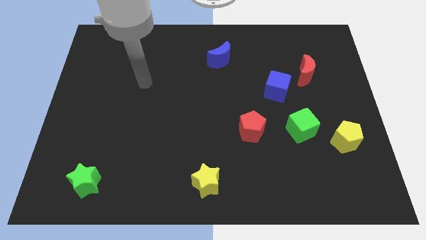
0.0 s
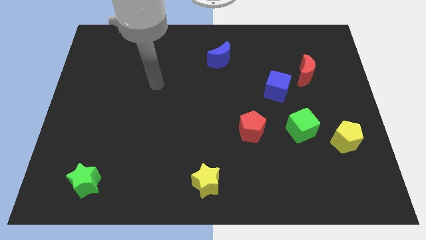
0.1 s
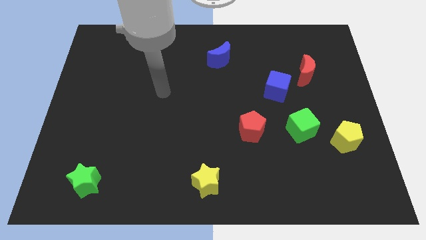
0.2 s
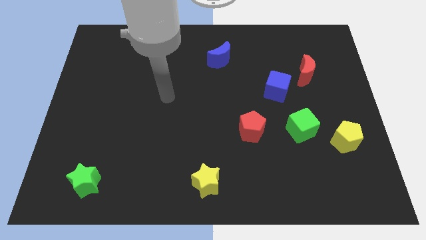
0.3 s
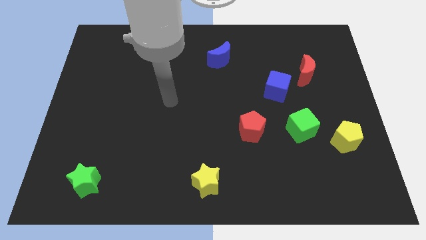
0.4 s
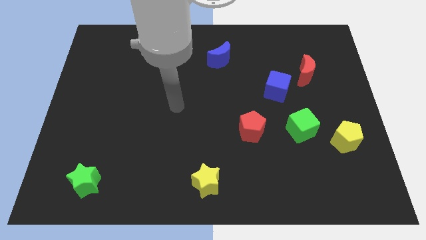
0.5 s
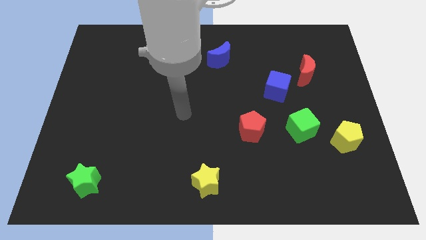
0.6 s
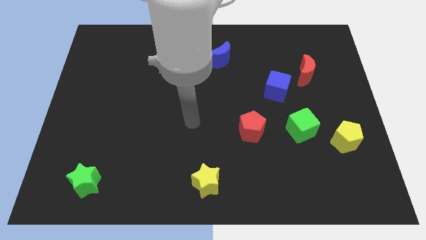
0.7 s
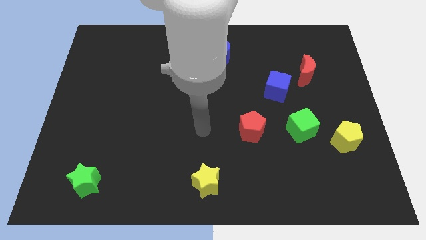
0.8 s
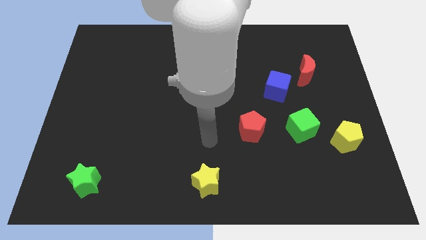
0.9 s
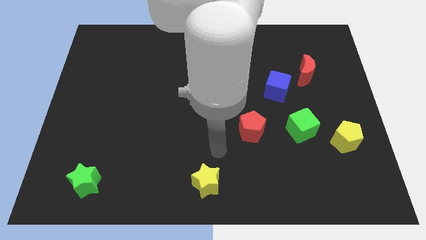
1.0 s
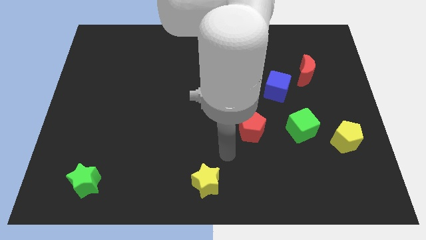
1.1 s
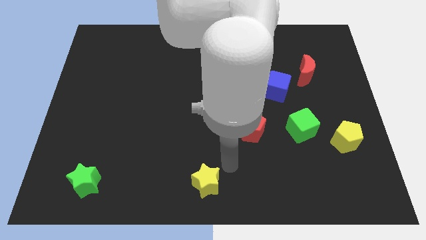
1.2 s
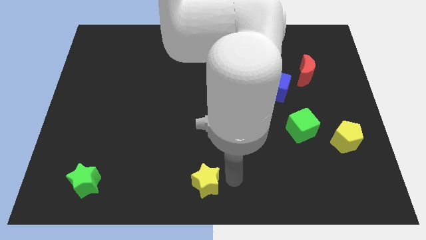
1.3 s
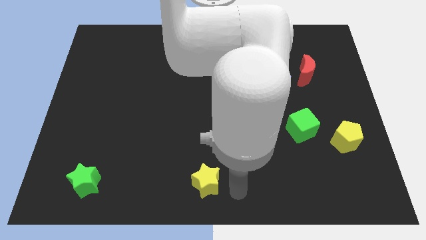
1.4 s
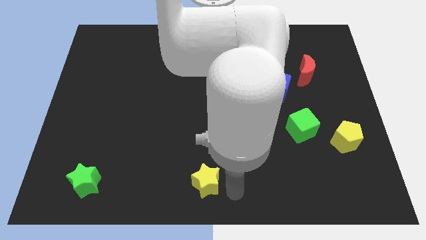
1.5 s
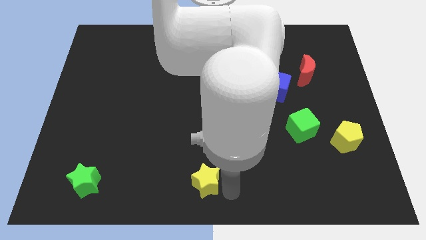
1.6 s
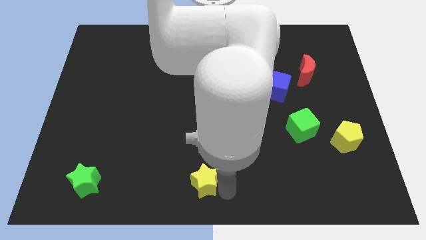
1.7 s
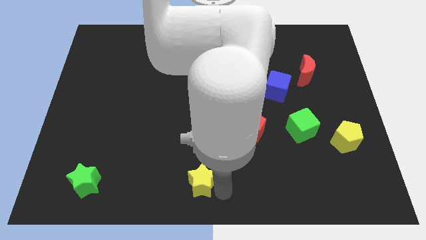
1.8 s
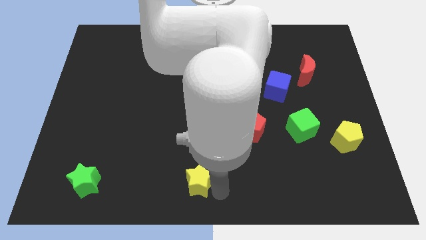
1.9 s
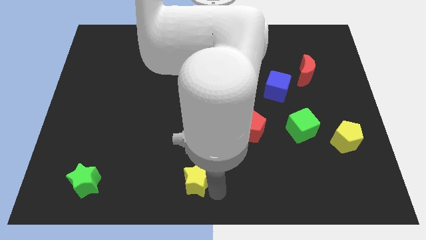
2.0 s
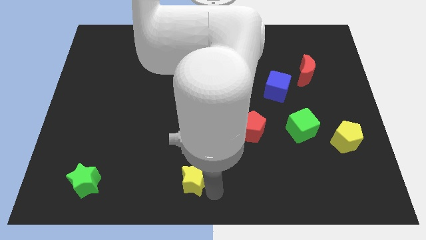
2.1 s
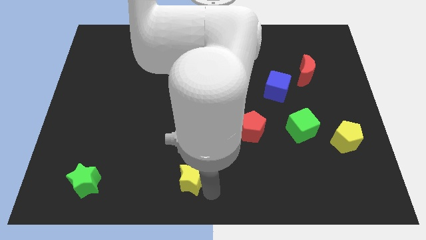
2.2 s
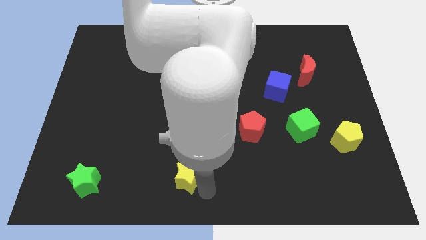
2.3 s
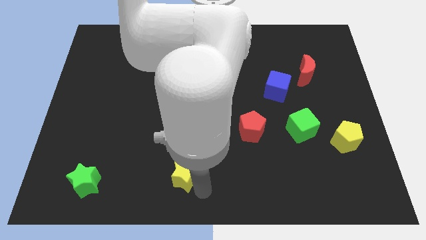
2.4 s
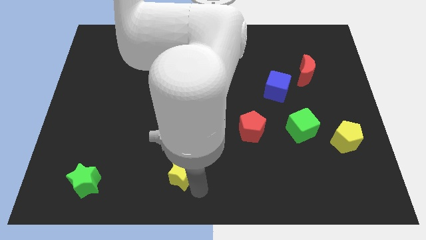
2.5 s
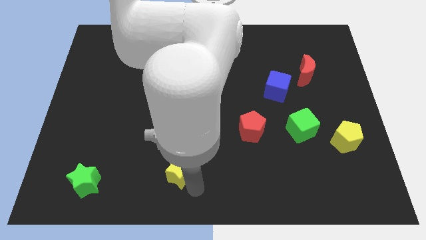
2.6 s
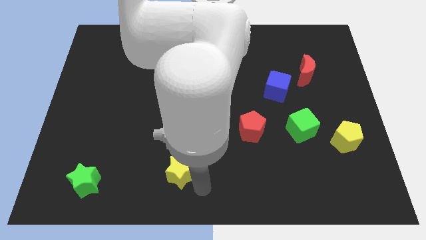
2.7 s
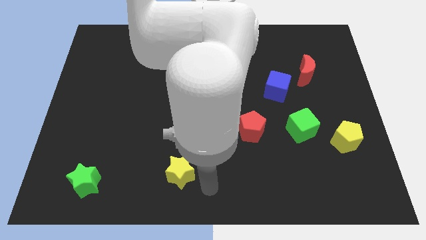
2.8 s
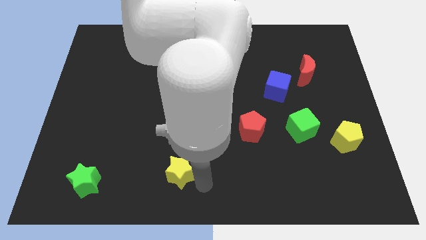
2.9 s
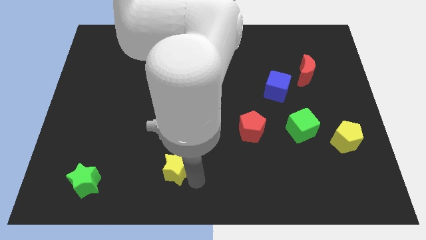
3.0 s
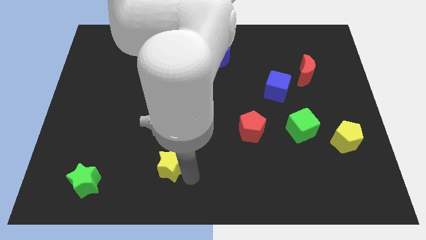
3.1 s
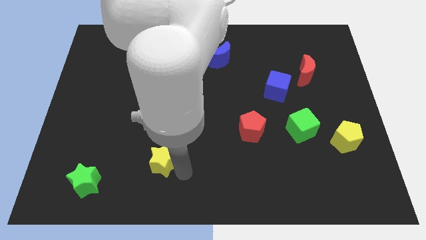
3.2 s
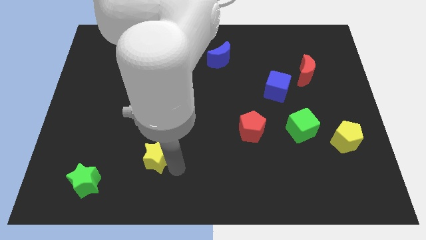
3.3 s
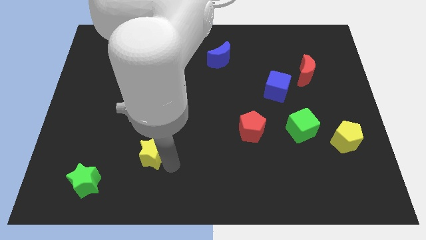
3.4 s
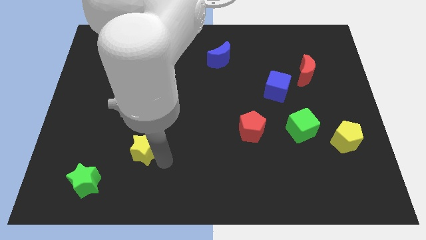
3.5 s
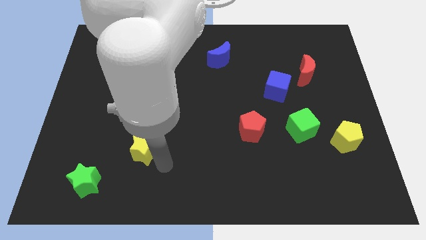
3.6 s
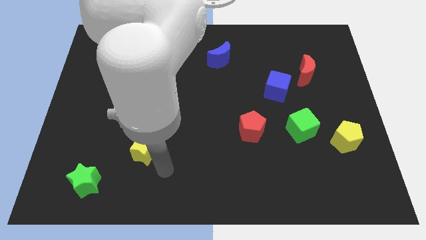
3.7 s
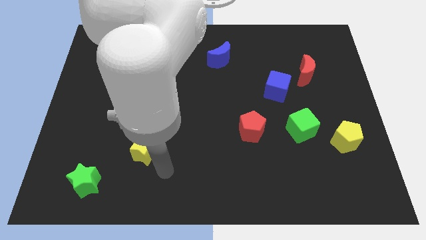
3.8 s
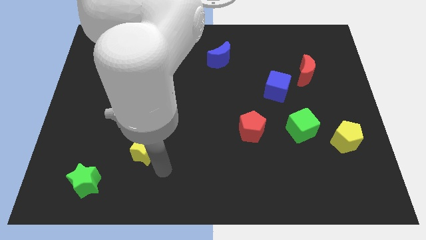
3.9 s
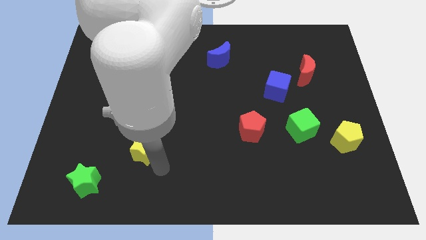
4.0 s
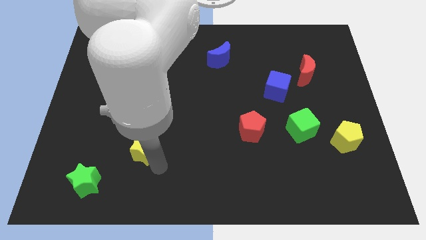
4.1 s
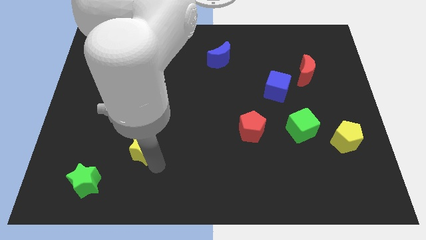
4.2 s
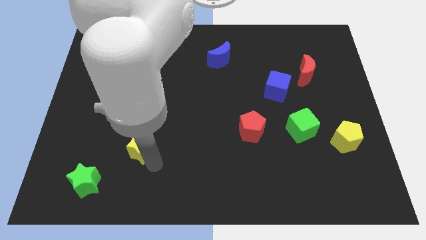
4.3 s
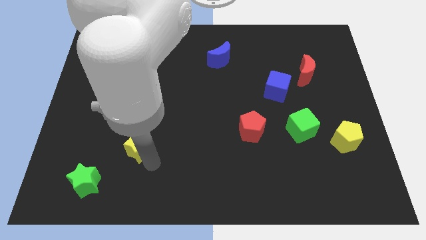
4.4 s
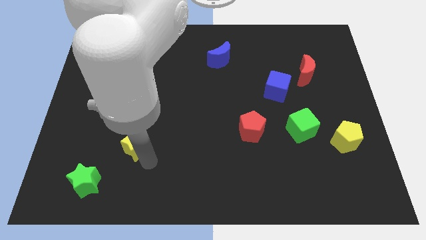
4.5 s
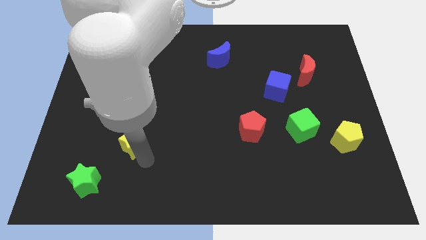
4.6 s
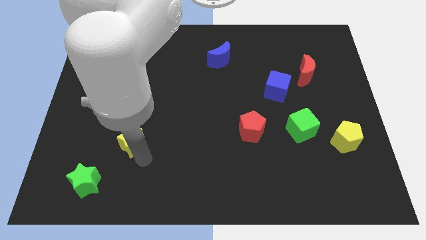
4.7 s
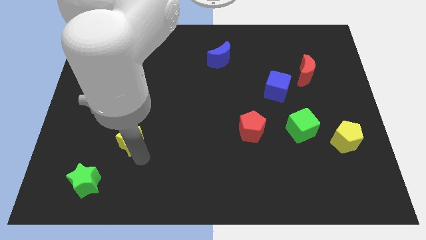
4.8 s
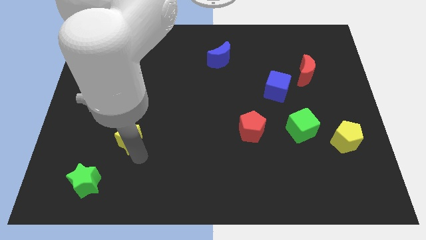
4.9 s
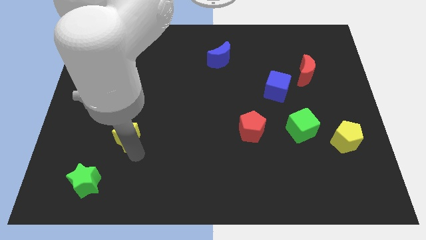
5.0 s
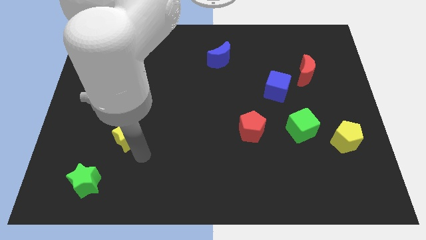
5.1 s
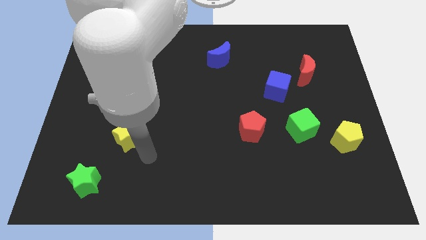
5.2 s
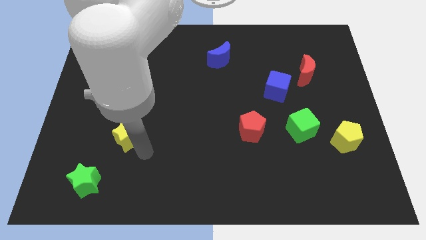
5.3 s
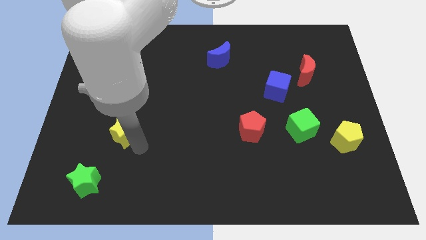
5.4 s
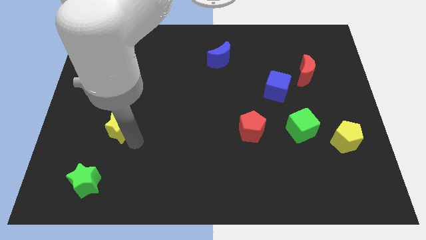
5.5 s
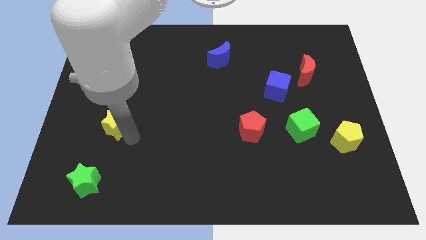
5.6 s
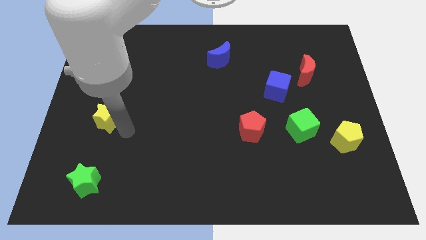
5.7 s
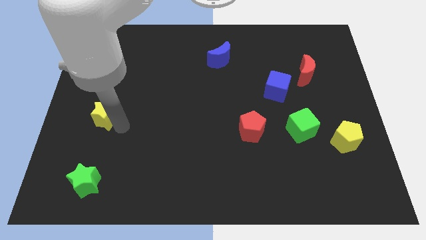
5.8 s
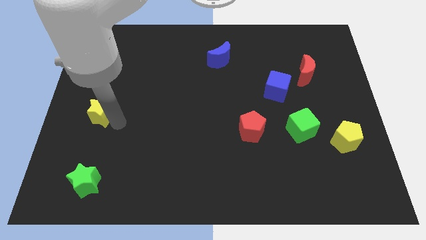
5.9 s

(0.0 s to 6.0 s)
slide the yellow star to the center left

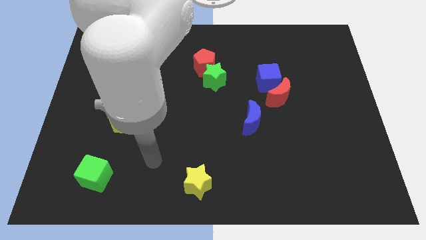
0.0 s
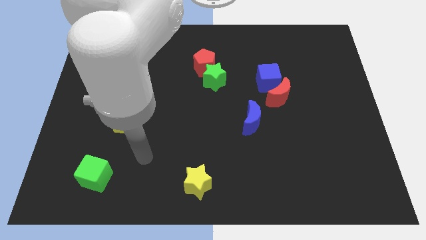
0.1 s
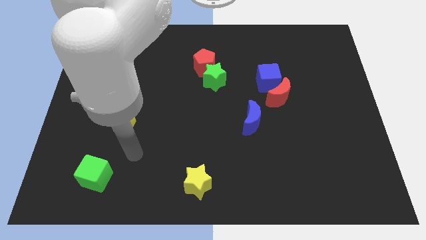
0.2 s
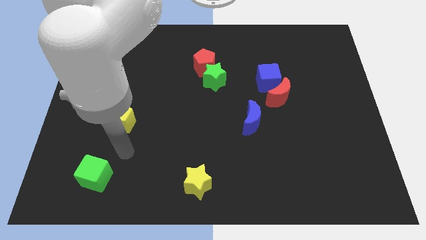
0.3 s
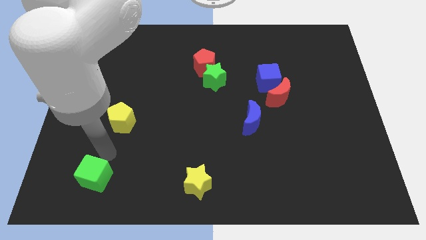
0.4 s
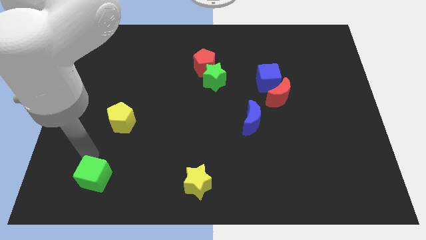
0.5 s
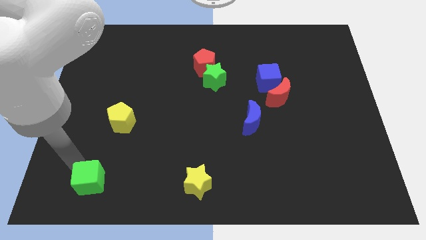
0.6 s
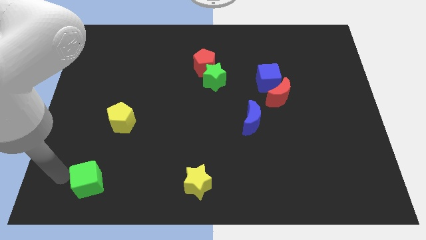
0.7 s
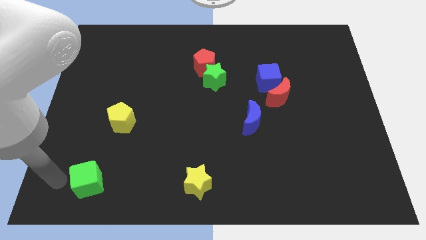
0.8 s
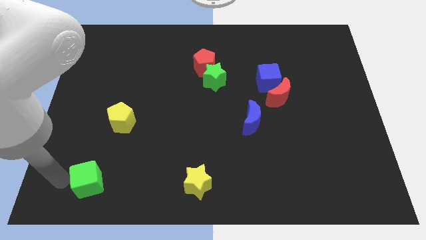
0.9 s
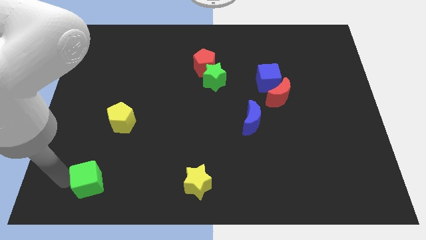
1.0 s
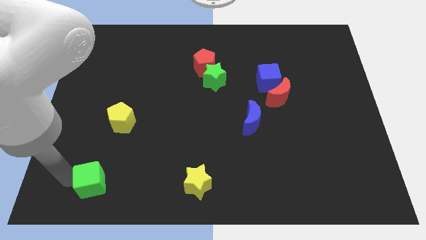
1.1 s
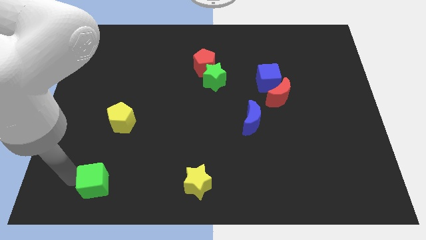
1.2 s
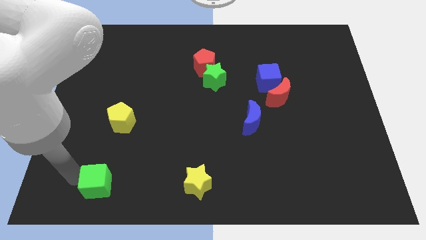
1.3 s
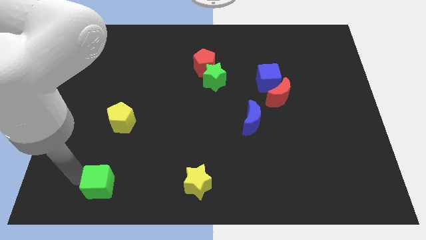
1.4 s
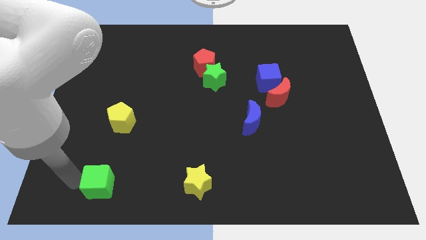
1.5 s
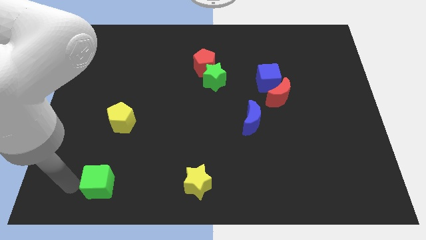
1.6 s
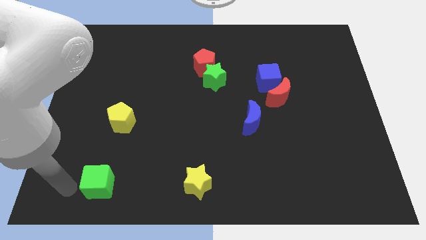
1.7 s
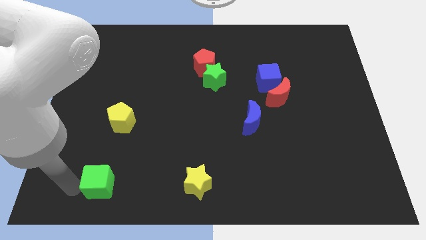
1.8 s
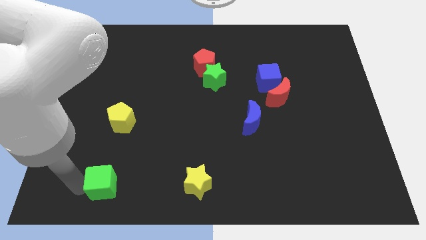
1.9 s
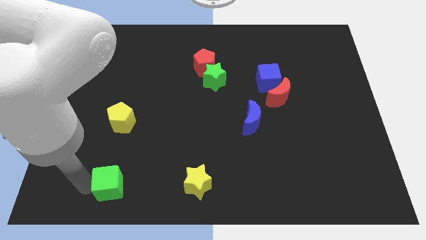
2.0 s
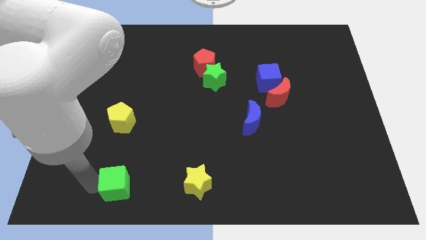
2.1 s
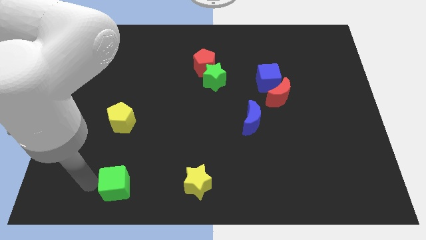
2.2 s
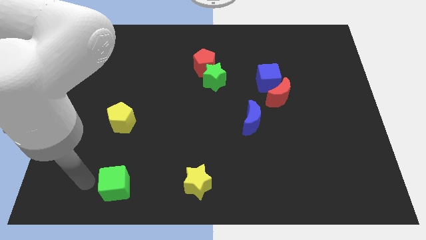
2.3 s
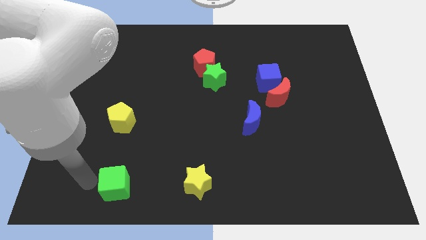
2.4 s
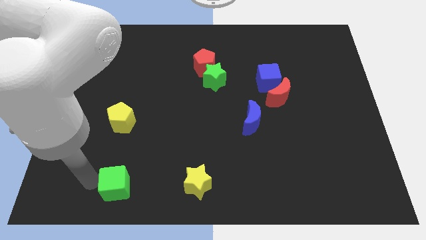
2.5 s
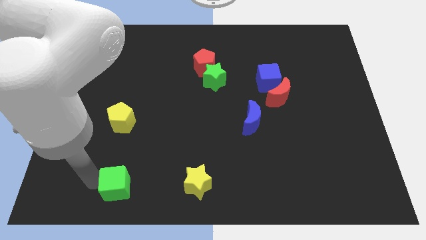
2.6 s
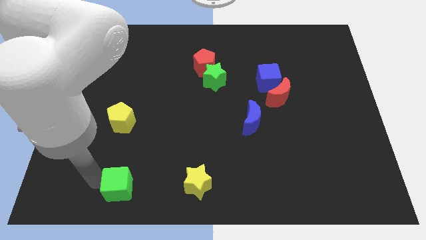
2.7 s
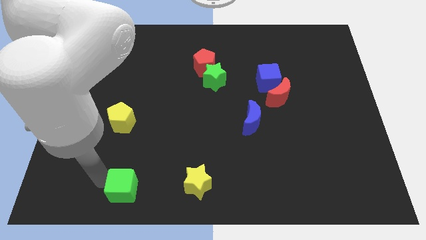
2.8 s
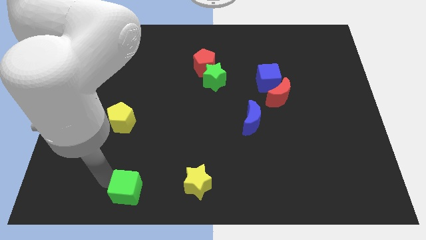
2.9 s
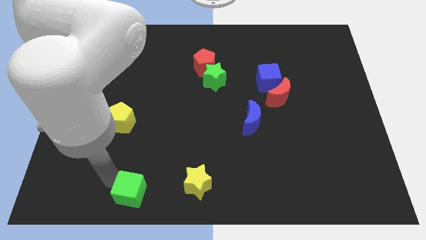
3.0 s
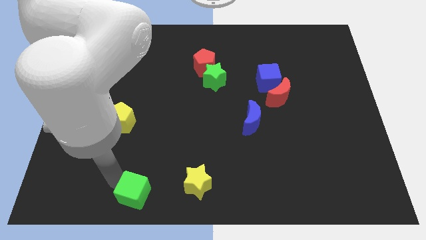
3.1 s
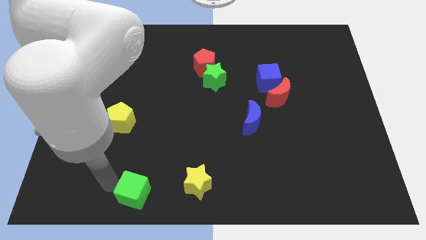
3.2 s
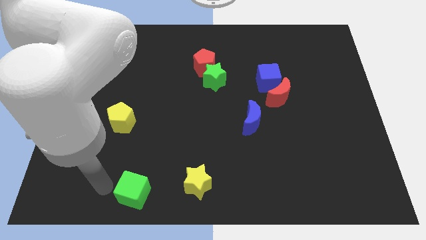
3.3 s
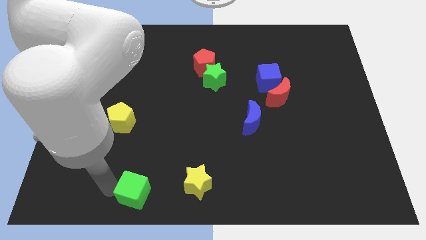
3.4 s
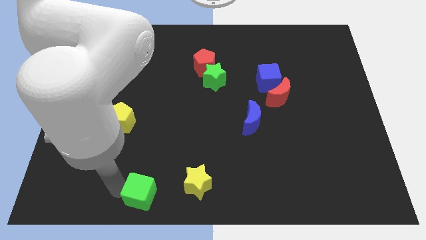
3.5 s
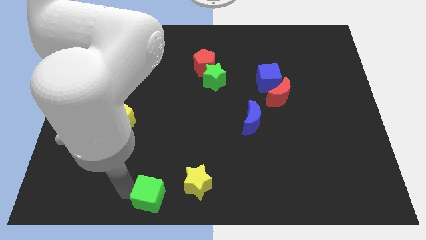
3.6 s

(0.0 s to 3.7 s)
put the green cube to the bottom side
